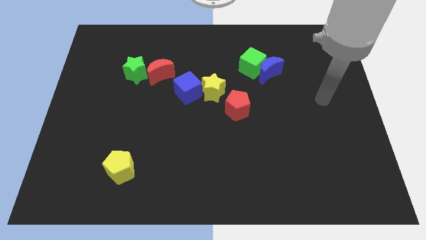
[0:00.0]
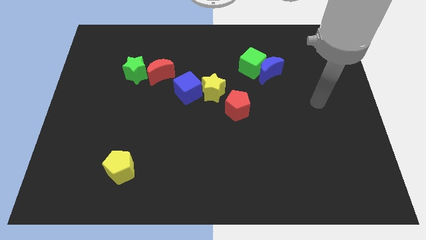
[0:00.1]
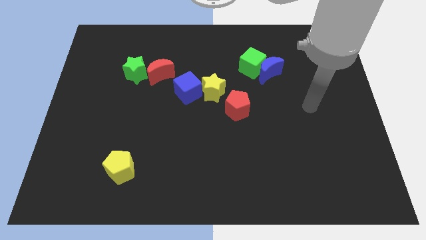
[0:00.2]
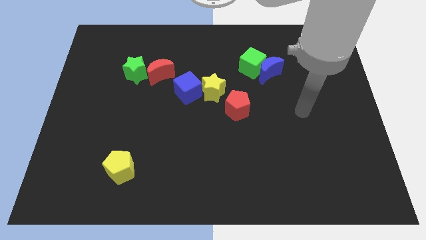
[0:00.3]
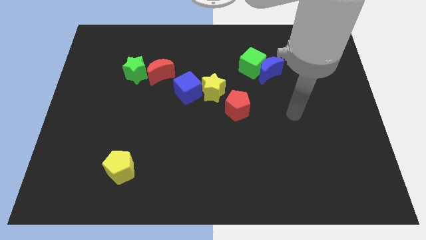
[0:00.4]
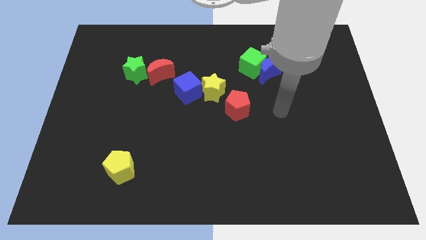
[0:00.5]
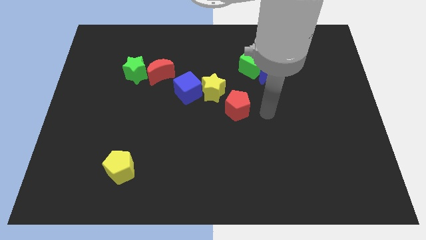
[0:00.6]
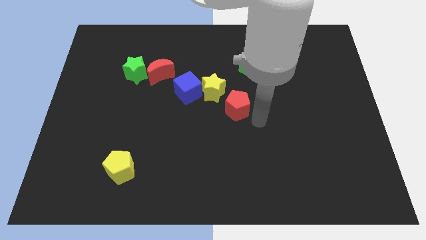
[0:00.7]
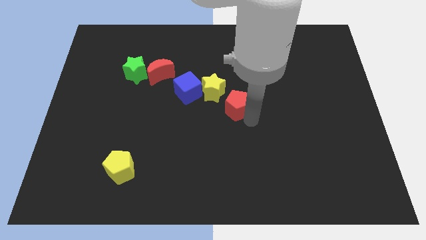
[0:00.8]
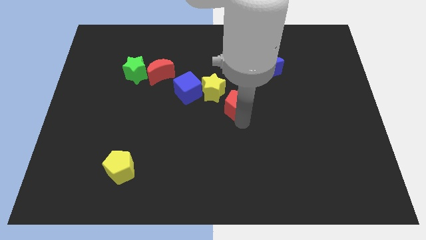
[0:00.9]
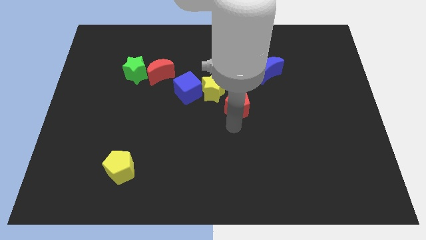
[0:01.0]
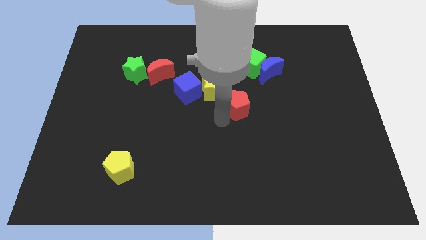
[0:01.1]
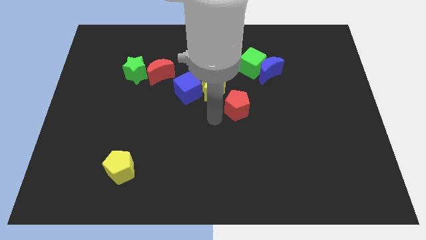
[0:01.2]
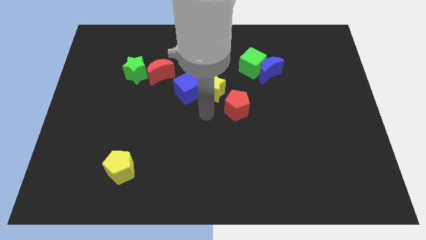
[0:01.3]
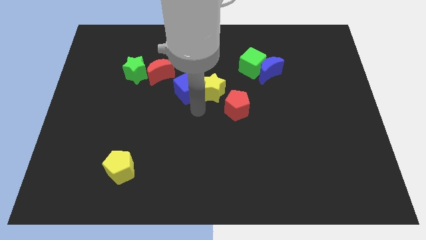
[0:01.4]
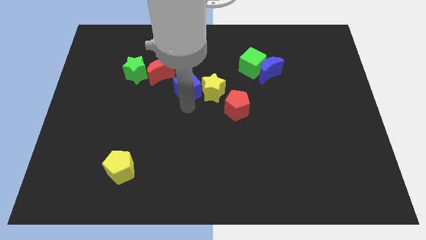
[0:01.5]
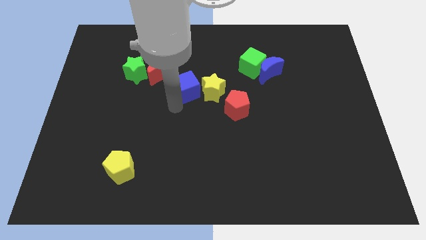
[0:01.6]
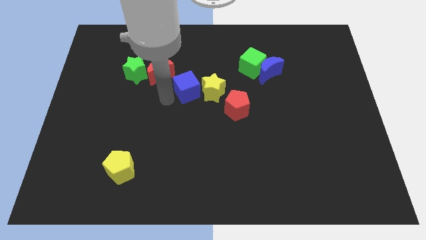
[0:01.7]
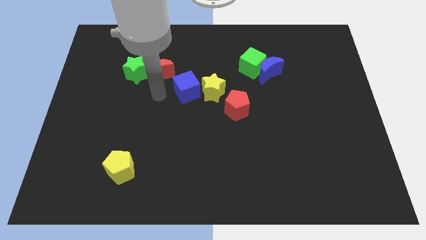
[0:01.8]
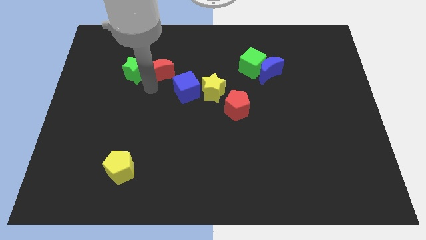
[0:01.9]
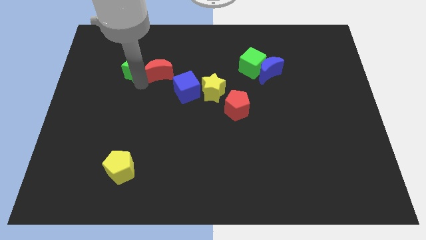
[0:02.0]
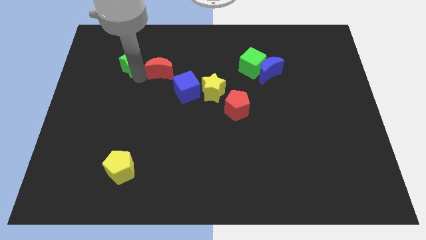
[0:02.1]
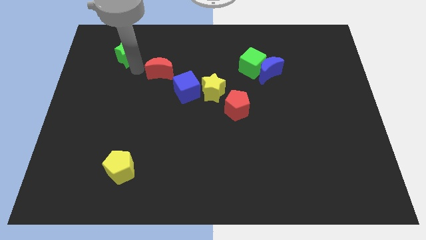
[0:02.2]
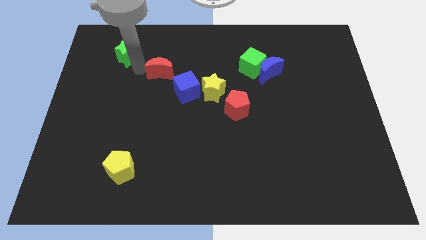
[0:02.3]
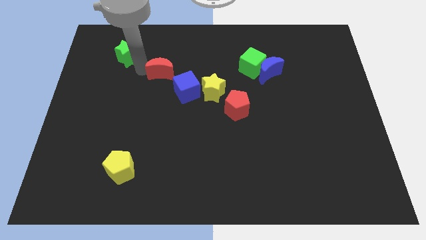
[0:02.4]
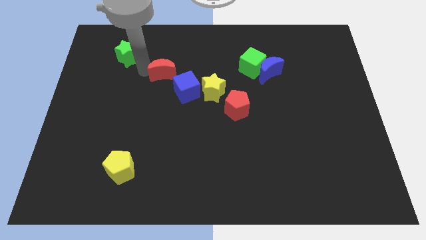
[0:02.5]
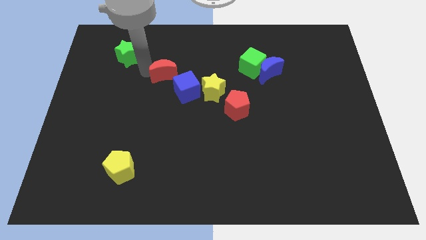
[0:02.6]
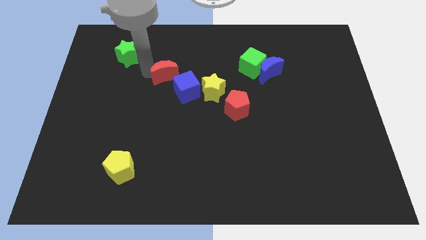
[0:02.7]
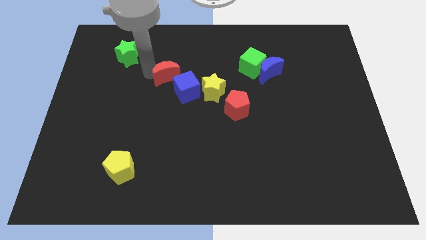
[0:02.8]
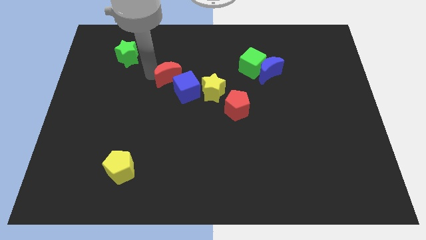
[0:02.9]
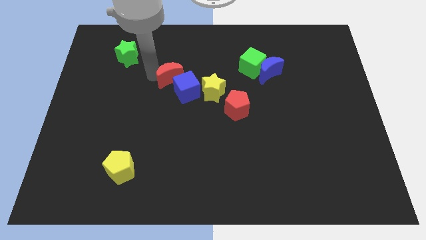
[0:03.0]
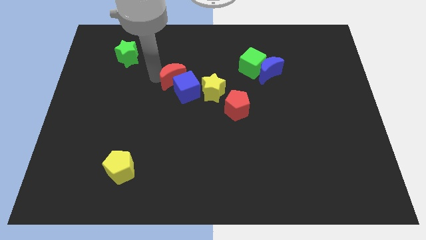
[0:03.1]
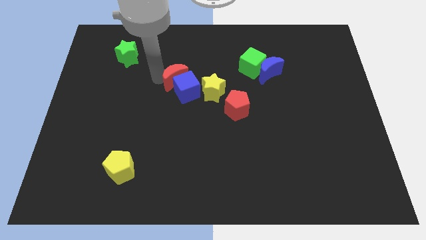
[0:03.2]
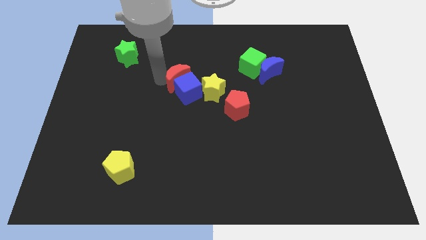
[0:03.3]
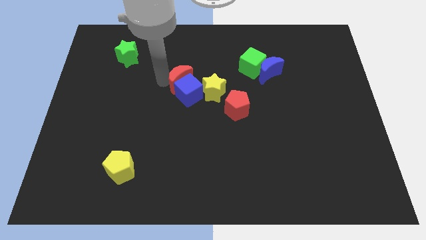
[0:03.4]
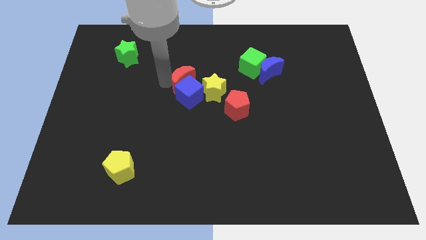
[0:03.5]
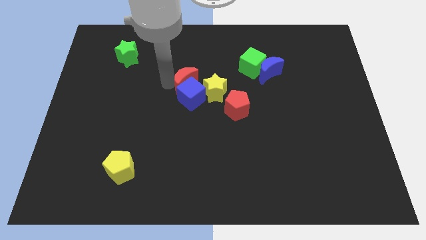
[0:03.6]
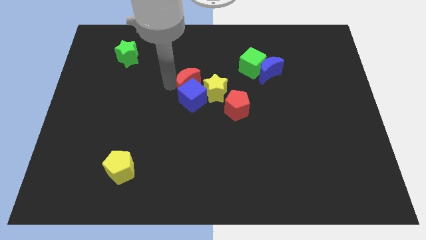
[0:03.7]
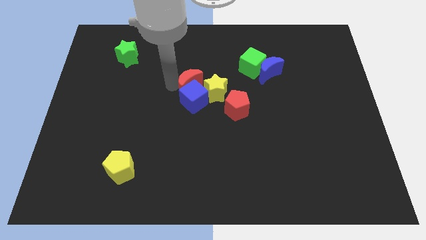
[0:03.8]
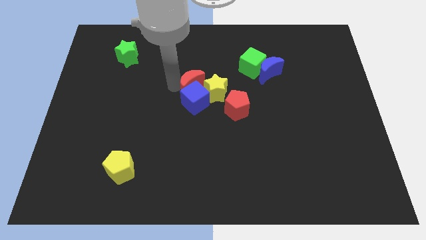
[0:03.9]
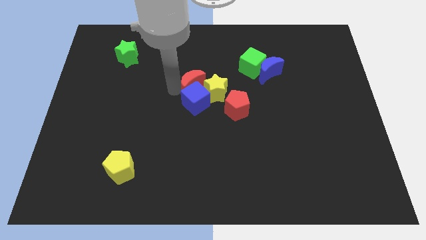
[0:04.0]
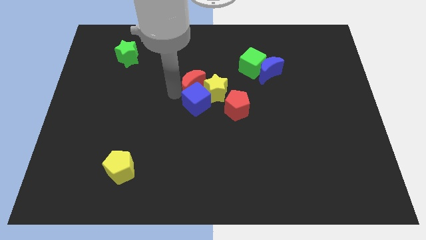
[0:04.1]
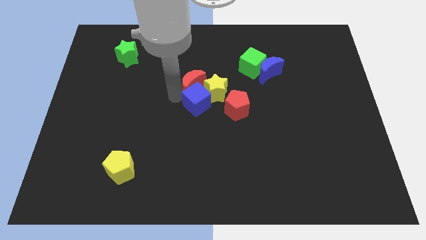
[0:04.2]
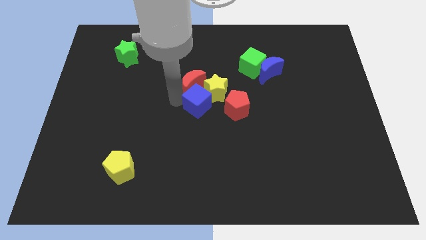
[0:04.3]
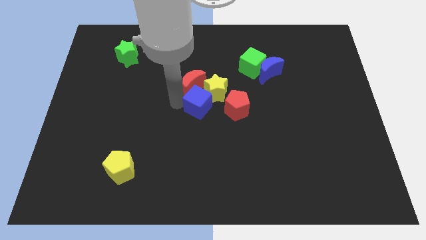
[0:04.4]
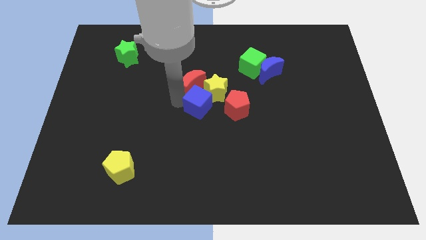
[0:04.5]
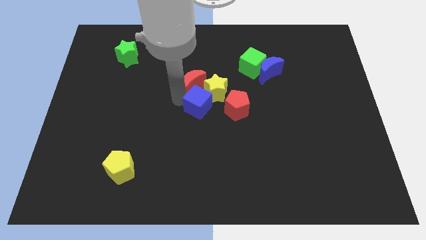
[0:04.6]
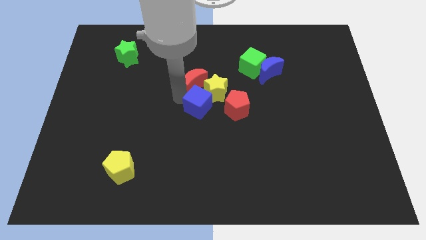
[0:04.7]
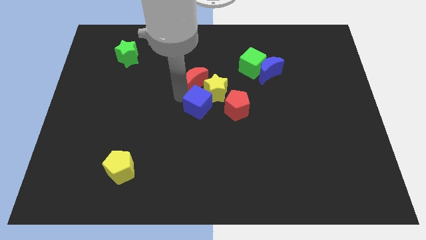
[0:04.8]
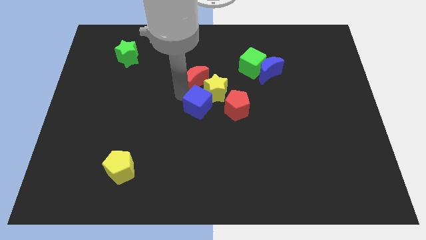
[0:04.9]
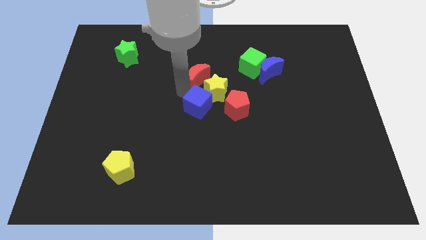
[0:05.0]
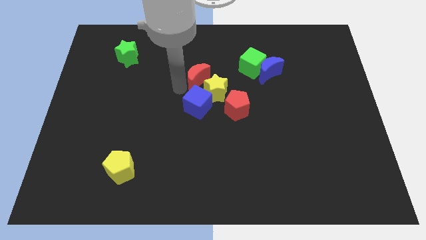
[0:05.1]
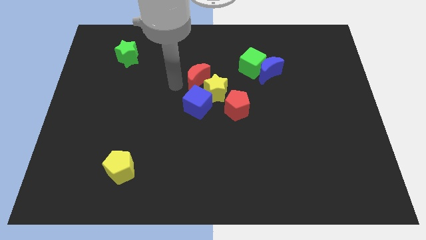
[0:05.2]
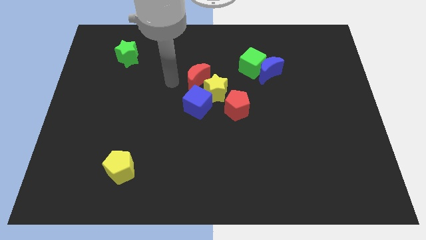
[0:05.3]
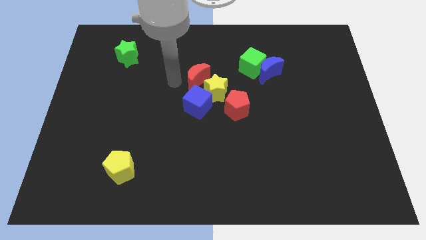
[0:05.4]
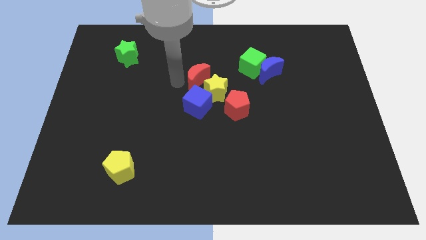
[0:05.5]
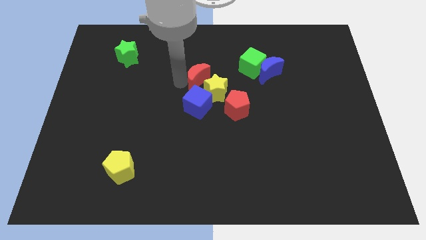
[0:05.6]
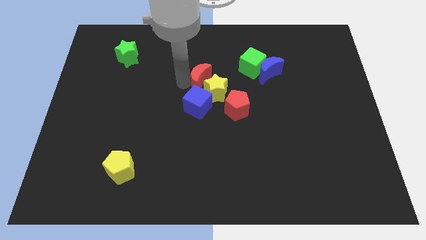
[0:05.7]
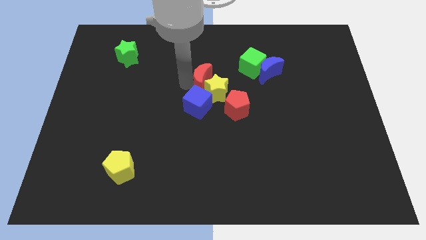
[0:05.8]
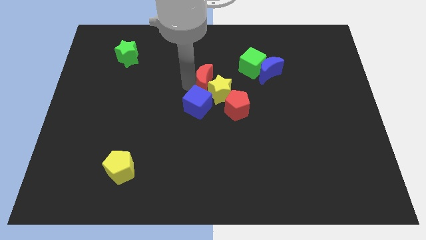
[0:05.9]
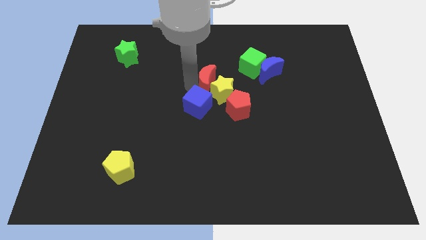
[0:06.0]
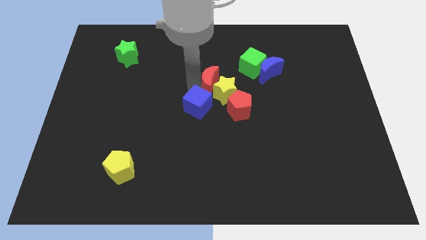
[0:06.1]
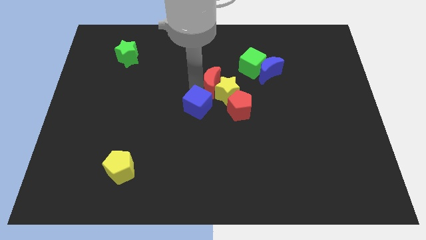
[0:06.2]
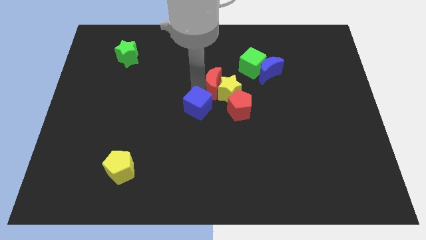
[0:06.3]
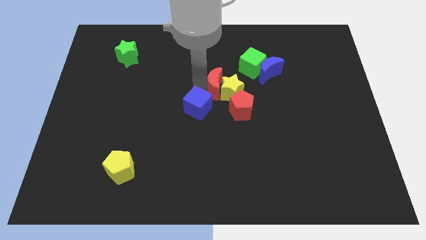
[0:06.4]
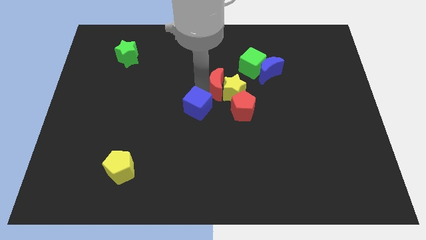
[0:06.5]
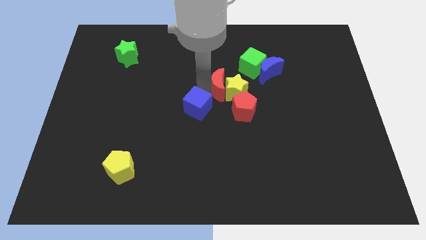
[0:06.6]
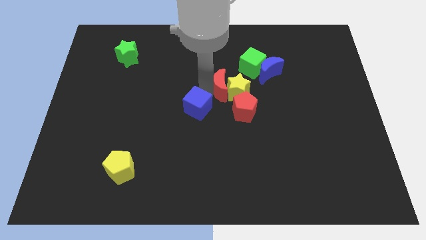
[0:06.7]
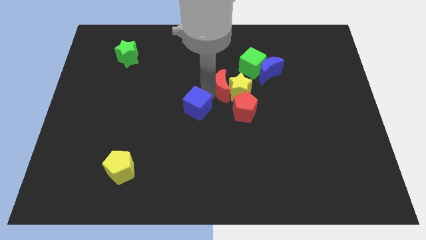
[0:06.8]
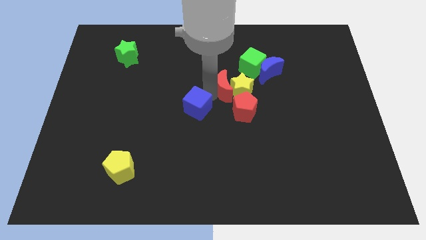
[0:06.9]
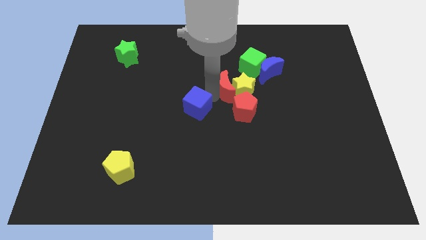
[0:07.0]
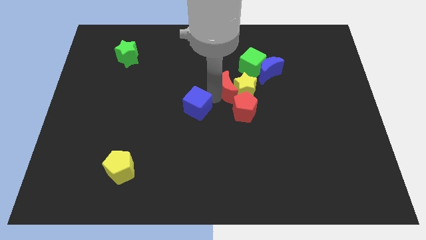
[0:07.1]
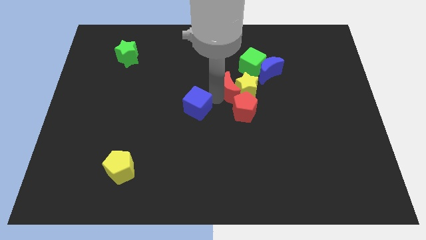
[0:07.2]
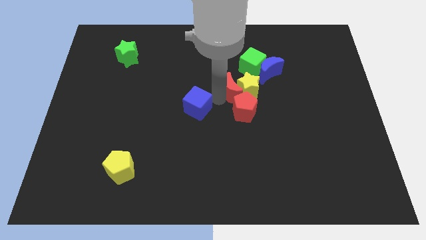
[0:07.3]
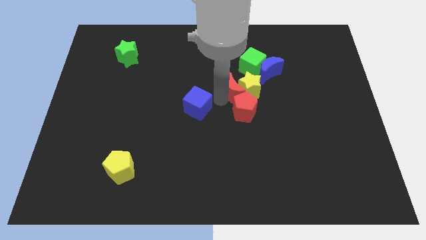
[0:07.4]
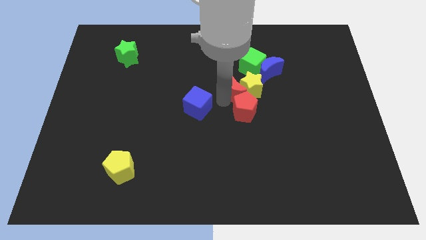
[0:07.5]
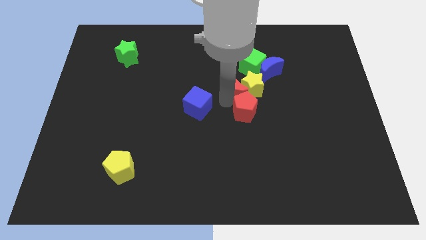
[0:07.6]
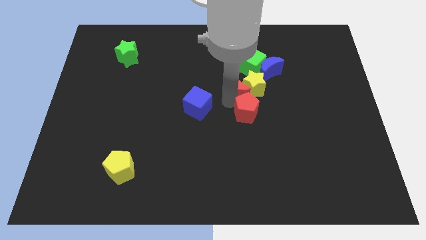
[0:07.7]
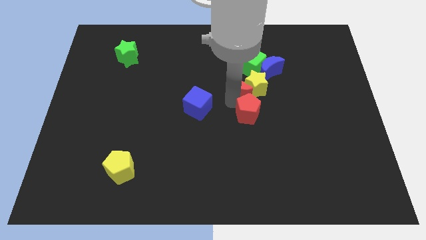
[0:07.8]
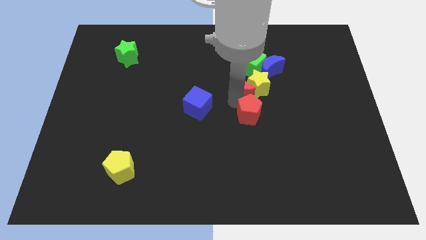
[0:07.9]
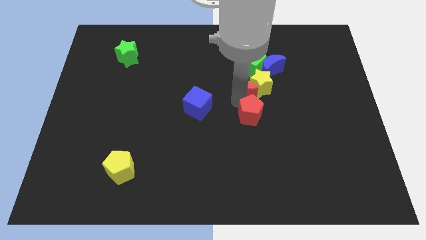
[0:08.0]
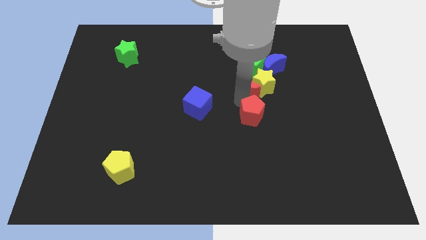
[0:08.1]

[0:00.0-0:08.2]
slide the red moon right

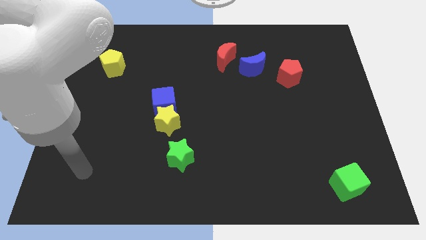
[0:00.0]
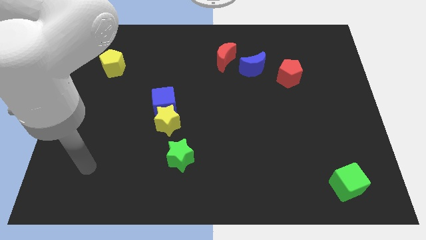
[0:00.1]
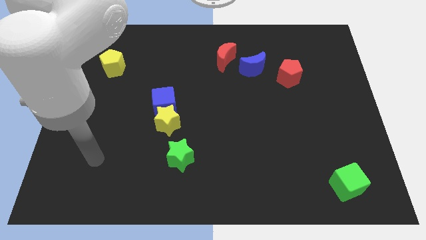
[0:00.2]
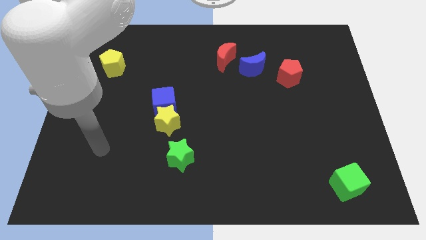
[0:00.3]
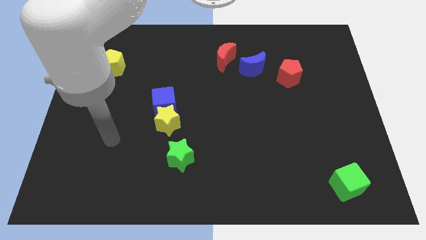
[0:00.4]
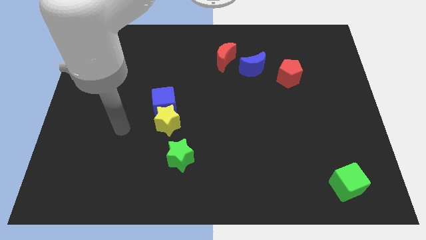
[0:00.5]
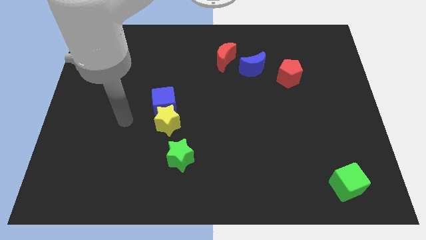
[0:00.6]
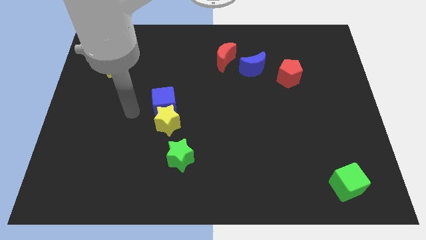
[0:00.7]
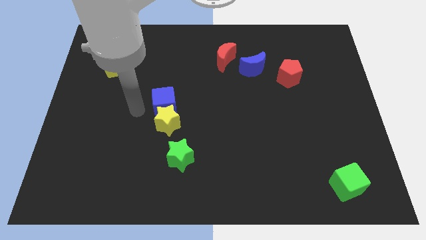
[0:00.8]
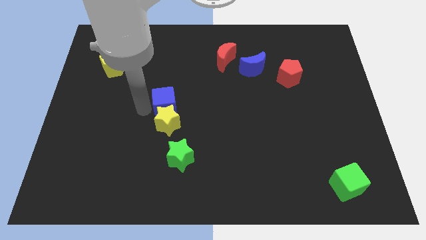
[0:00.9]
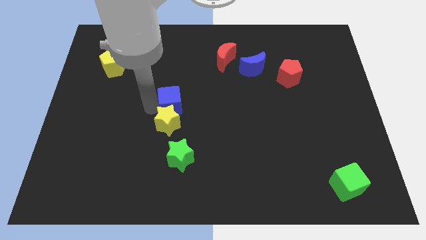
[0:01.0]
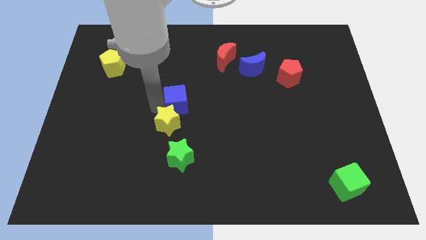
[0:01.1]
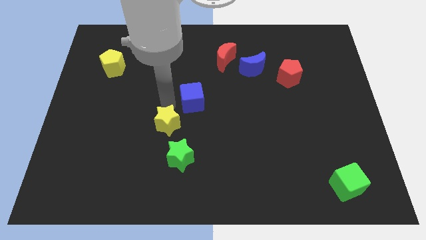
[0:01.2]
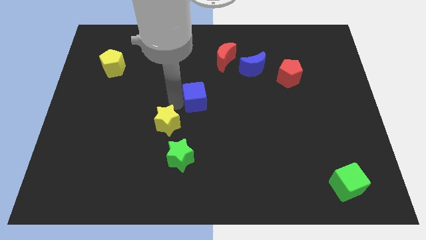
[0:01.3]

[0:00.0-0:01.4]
slightly slide the blue cube right
